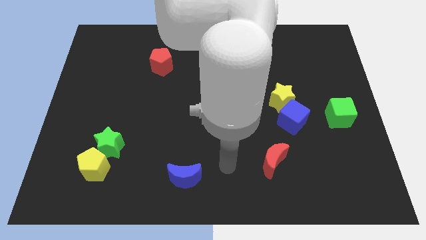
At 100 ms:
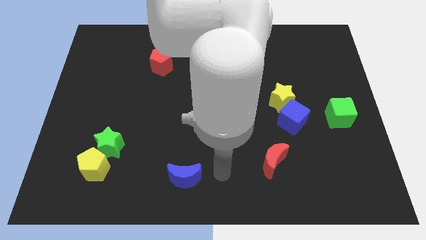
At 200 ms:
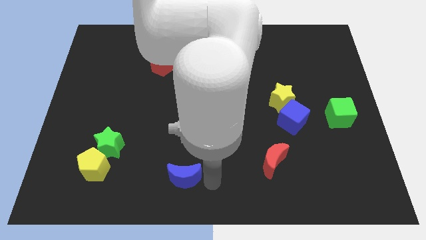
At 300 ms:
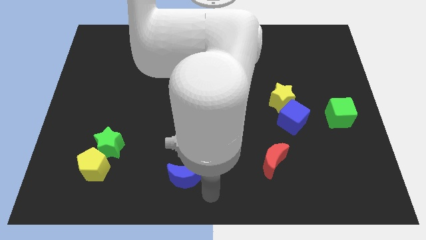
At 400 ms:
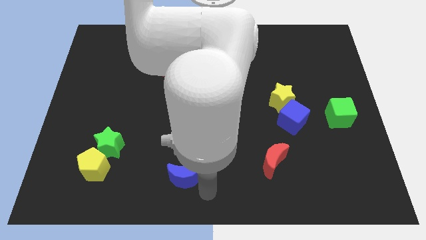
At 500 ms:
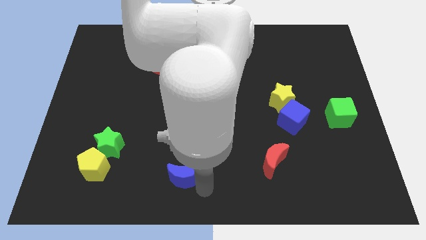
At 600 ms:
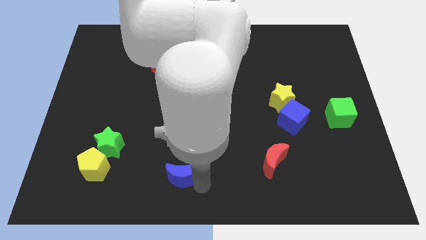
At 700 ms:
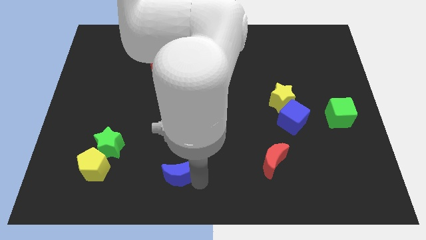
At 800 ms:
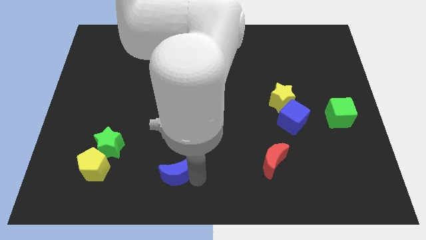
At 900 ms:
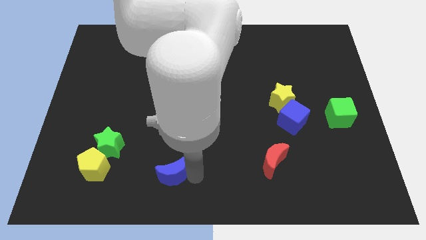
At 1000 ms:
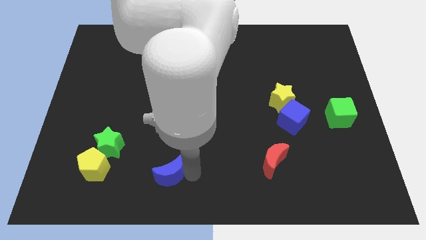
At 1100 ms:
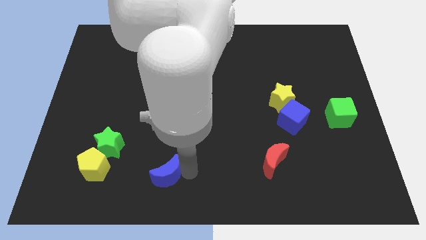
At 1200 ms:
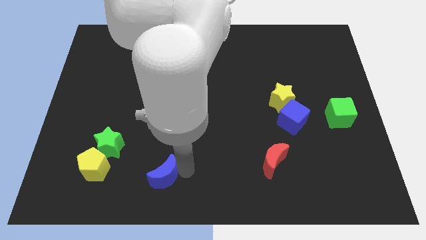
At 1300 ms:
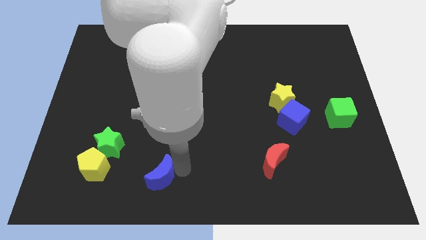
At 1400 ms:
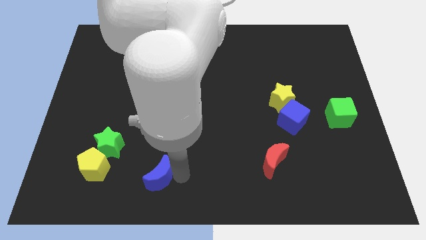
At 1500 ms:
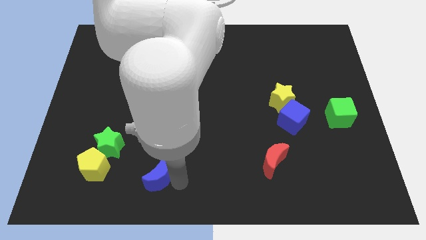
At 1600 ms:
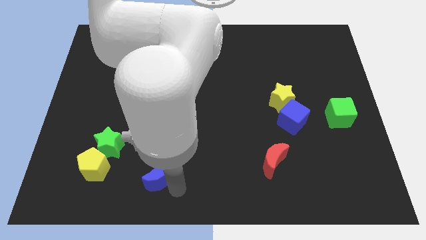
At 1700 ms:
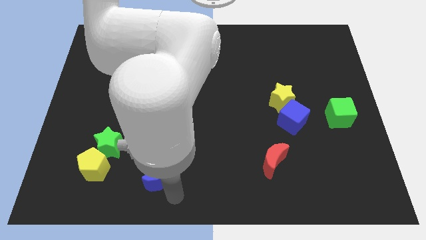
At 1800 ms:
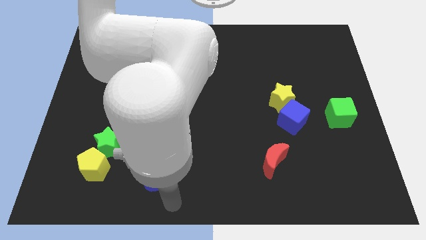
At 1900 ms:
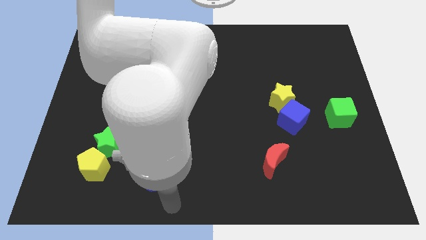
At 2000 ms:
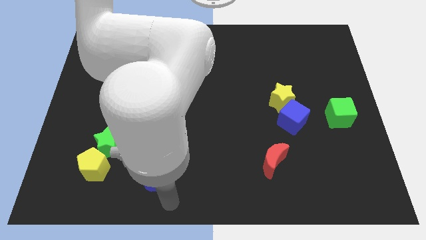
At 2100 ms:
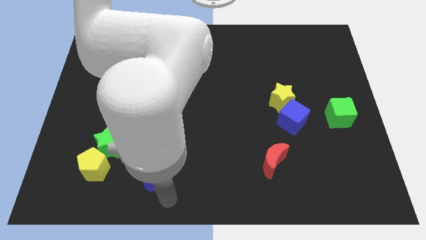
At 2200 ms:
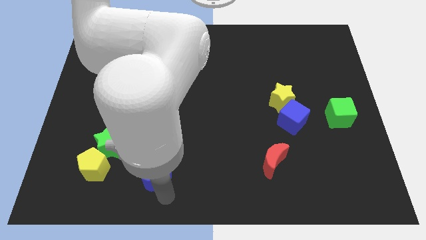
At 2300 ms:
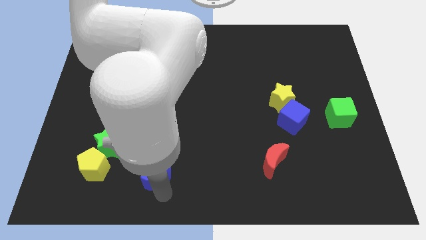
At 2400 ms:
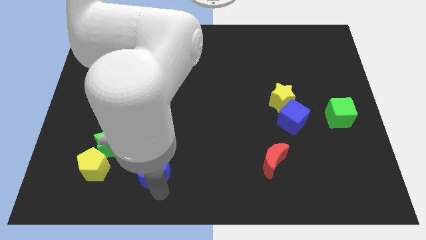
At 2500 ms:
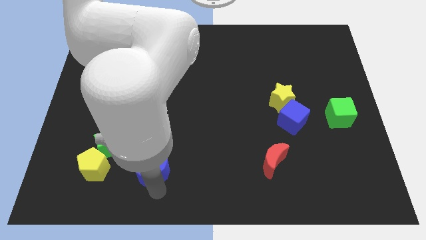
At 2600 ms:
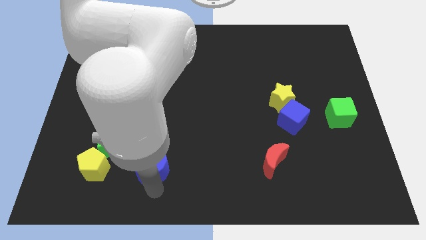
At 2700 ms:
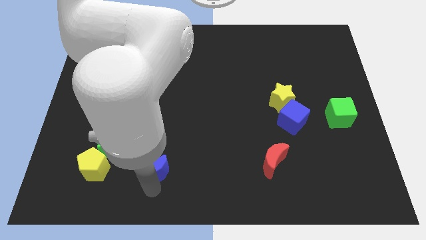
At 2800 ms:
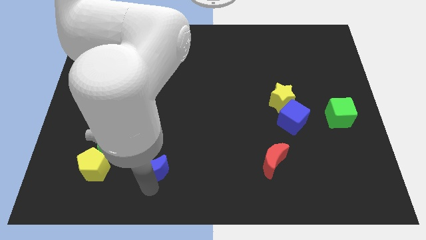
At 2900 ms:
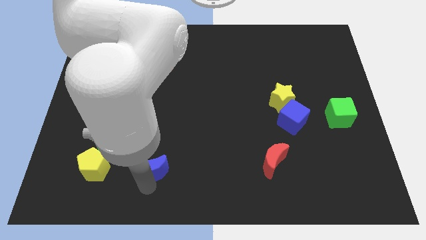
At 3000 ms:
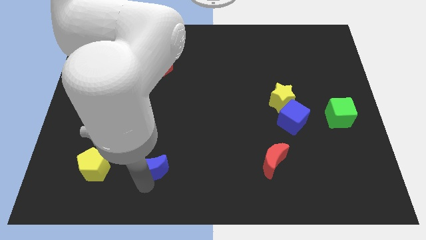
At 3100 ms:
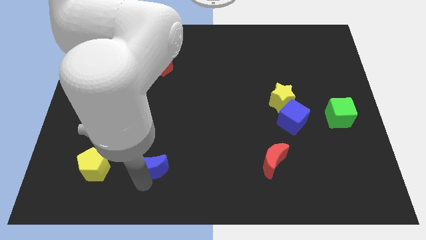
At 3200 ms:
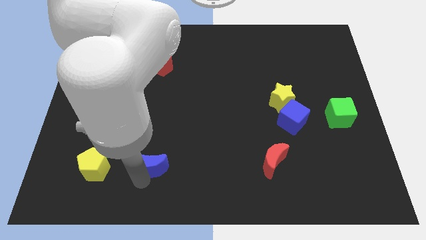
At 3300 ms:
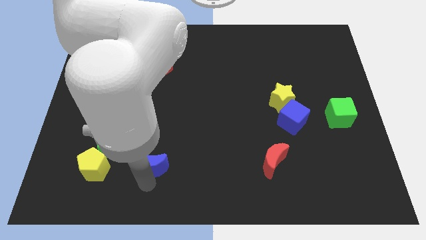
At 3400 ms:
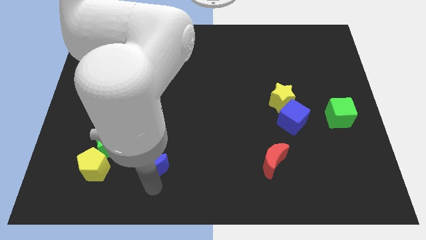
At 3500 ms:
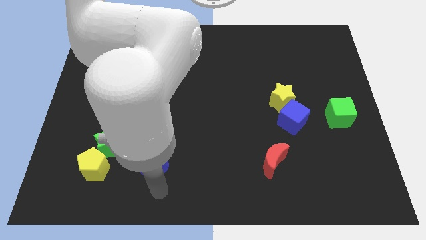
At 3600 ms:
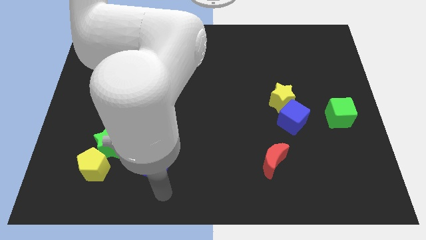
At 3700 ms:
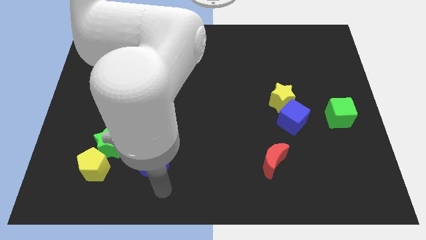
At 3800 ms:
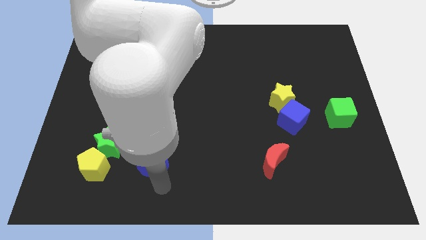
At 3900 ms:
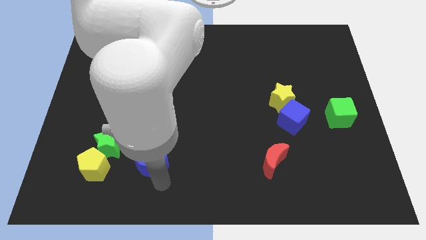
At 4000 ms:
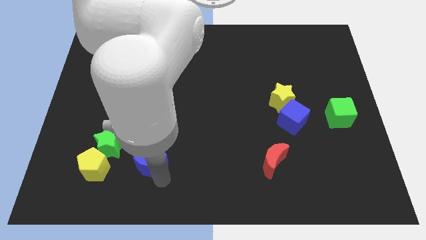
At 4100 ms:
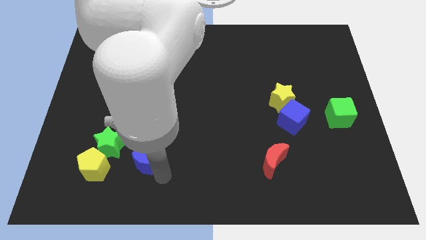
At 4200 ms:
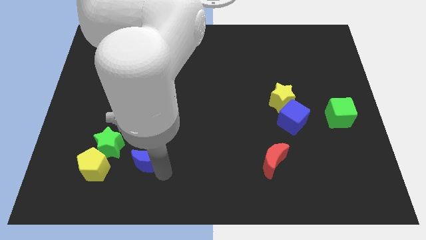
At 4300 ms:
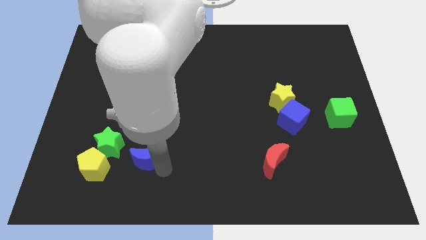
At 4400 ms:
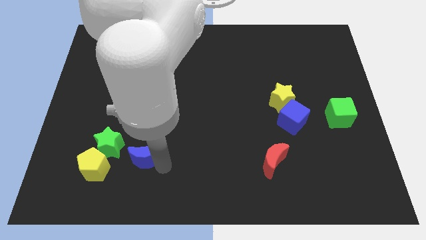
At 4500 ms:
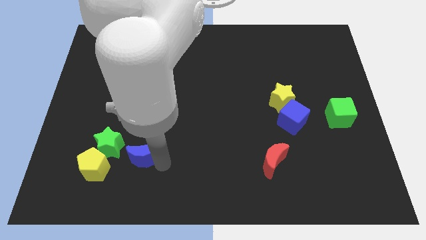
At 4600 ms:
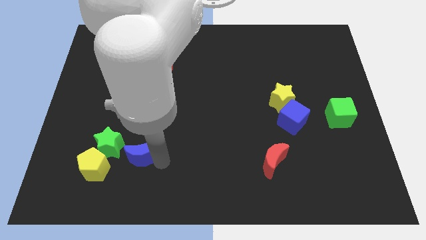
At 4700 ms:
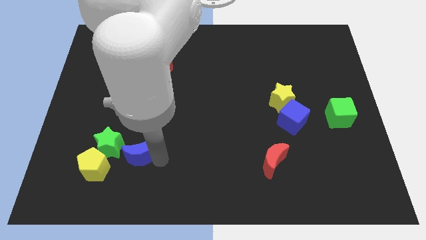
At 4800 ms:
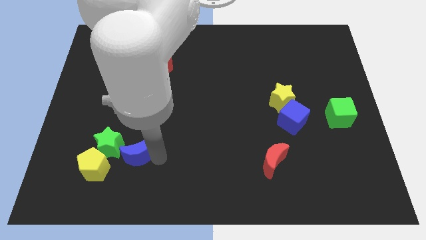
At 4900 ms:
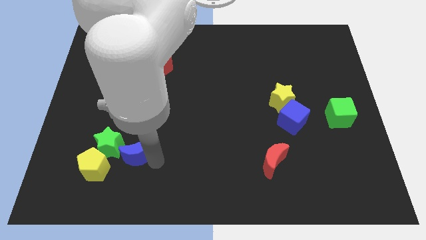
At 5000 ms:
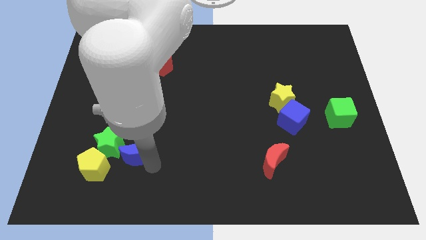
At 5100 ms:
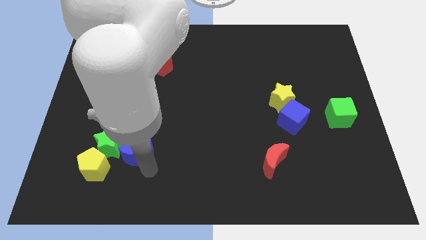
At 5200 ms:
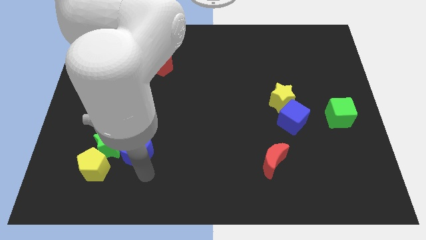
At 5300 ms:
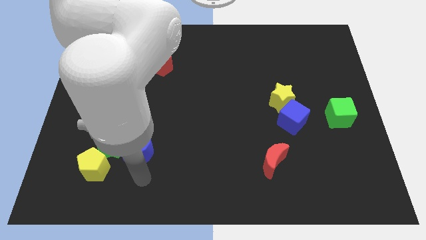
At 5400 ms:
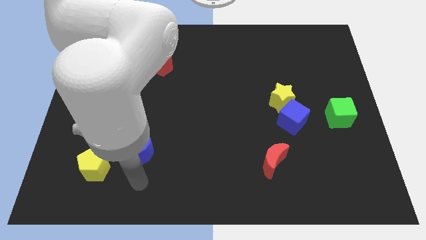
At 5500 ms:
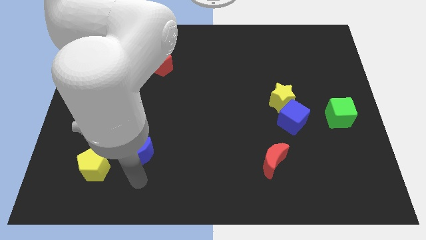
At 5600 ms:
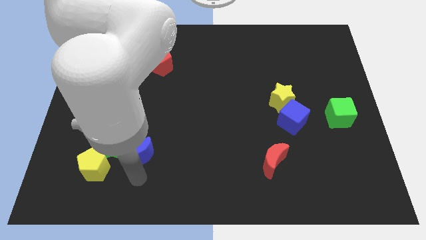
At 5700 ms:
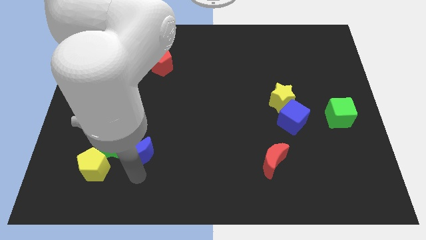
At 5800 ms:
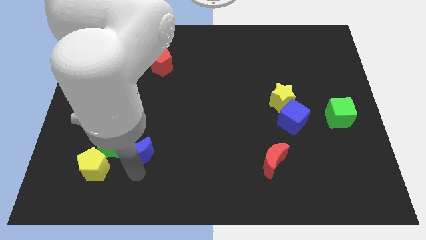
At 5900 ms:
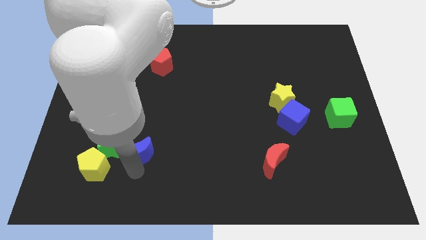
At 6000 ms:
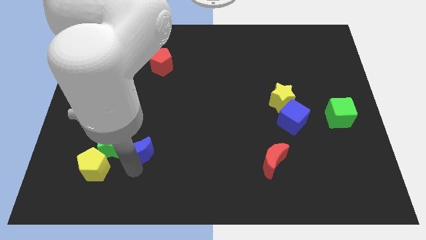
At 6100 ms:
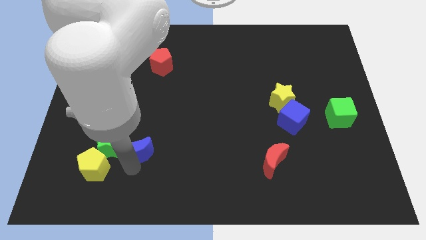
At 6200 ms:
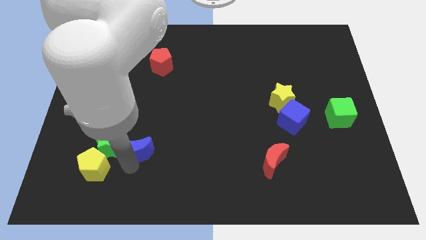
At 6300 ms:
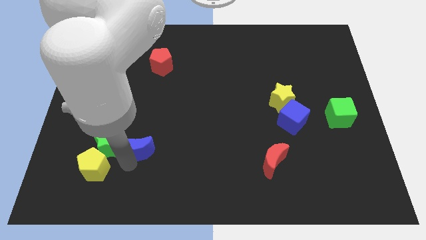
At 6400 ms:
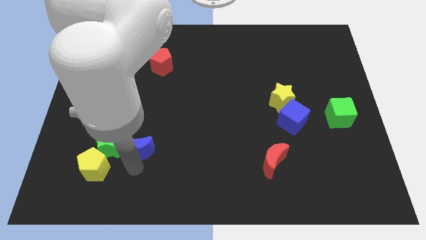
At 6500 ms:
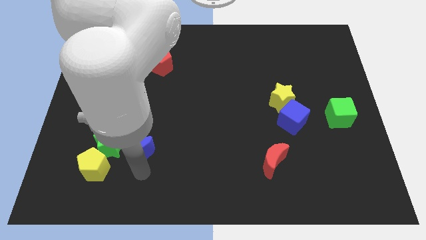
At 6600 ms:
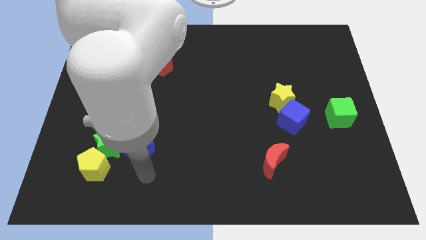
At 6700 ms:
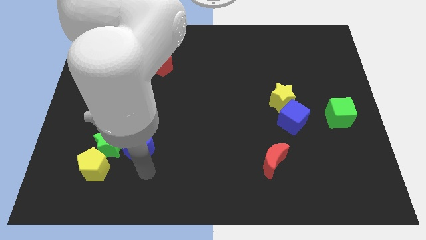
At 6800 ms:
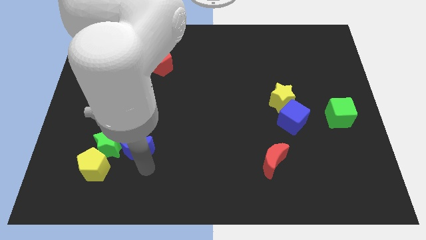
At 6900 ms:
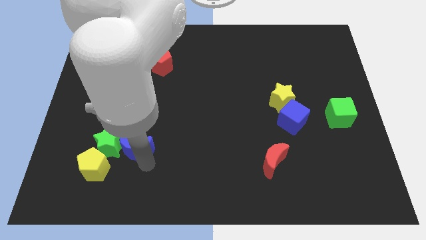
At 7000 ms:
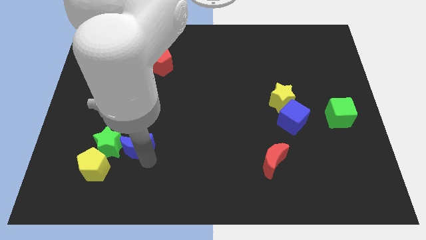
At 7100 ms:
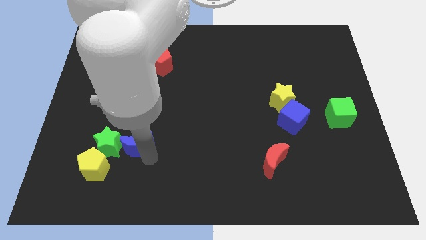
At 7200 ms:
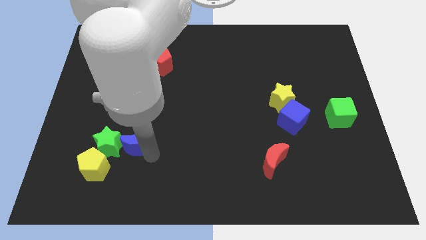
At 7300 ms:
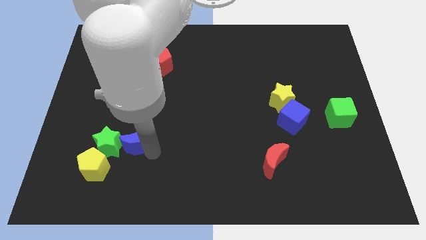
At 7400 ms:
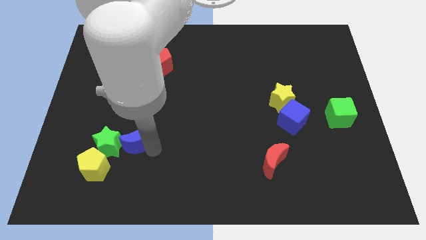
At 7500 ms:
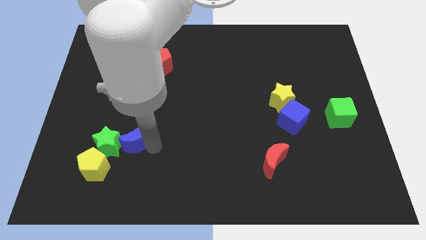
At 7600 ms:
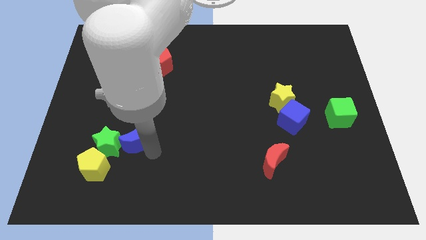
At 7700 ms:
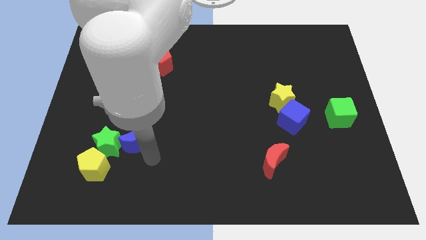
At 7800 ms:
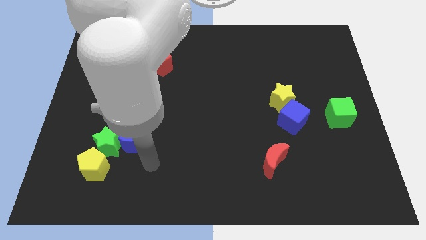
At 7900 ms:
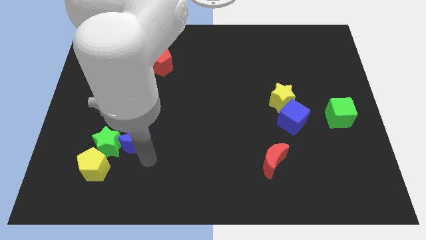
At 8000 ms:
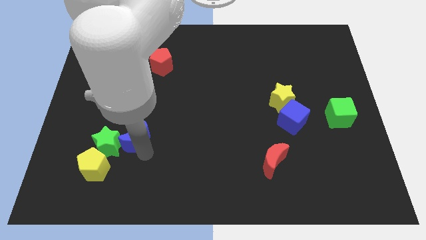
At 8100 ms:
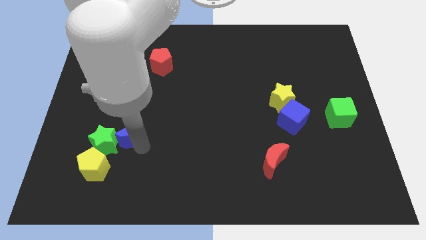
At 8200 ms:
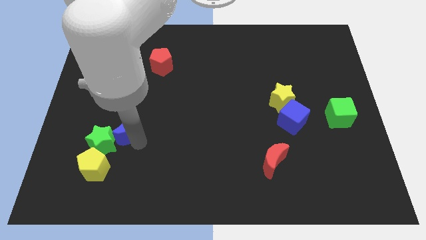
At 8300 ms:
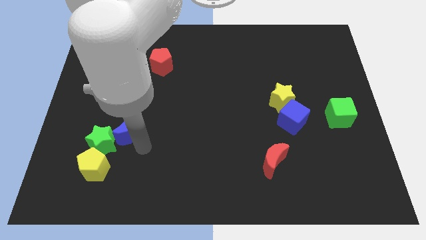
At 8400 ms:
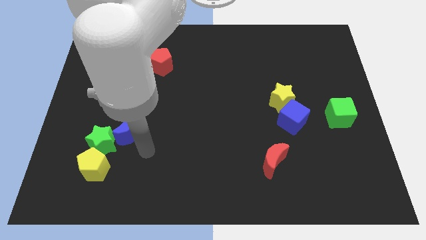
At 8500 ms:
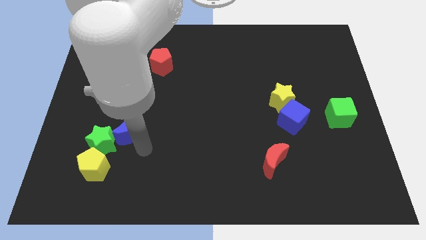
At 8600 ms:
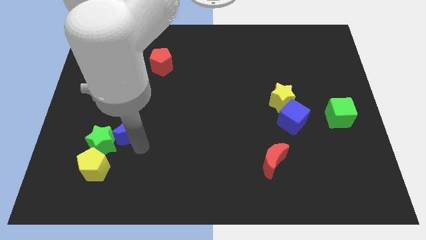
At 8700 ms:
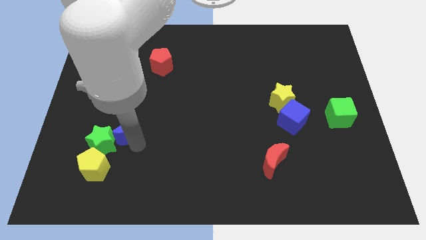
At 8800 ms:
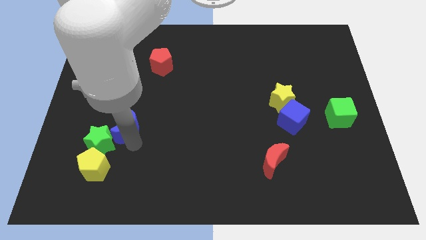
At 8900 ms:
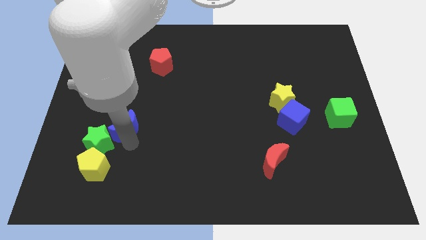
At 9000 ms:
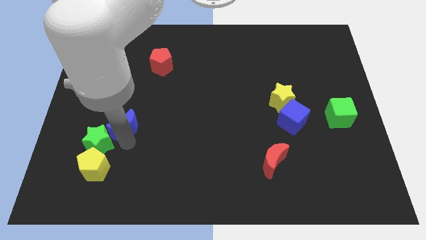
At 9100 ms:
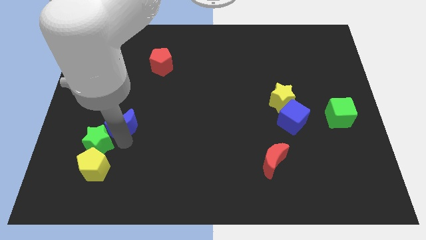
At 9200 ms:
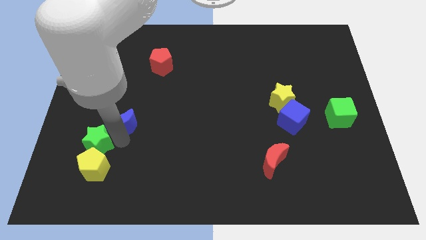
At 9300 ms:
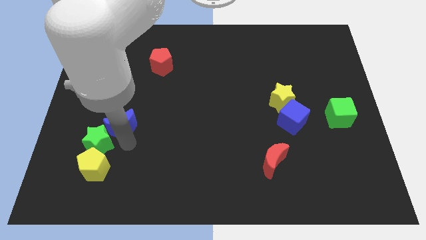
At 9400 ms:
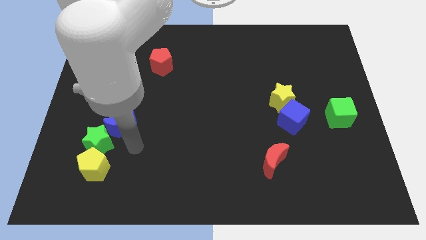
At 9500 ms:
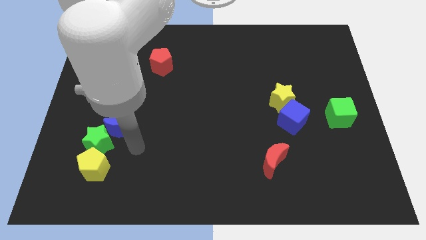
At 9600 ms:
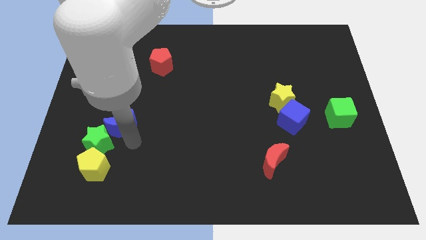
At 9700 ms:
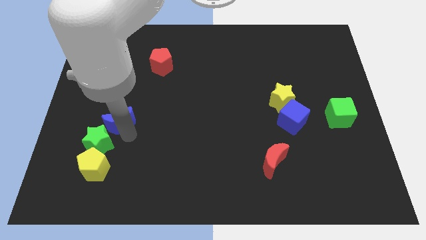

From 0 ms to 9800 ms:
move the blue moon diagonally up and left
